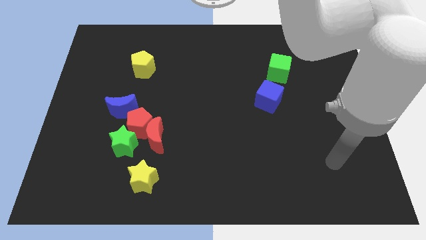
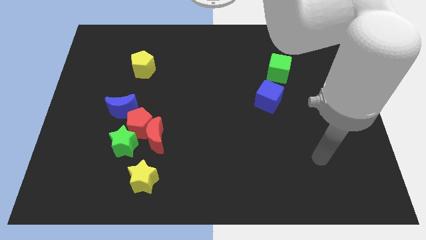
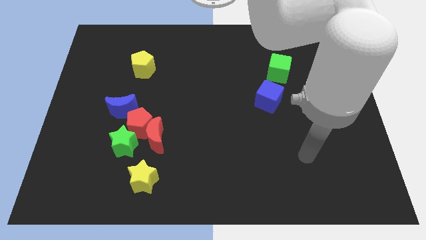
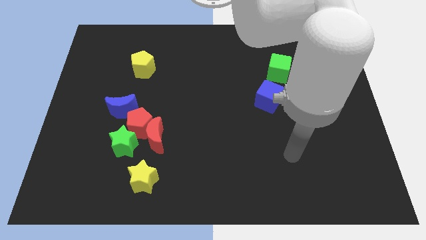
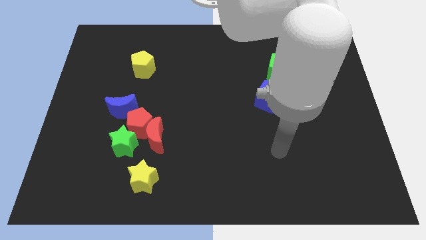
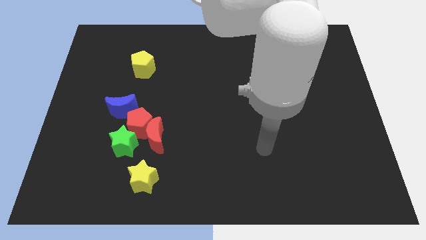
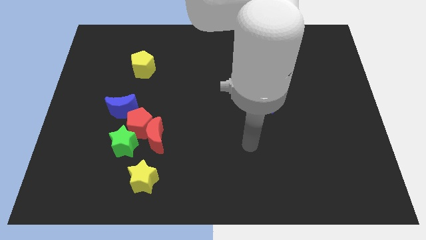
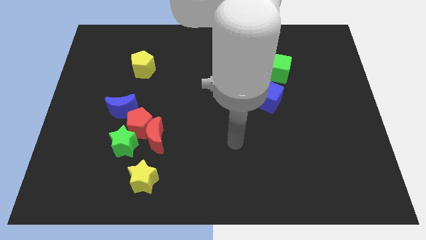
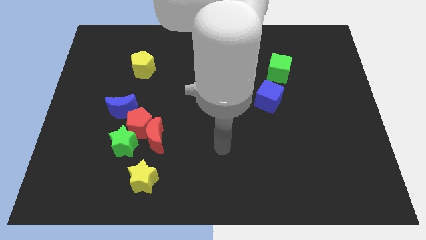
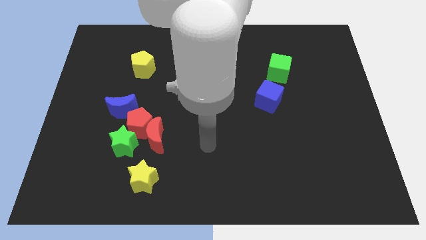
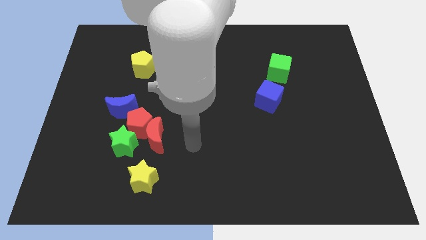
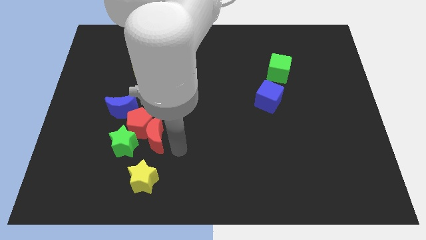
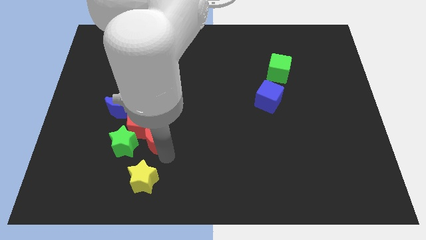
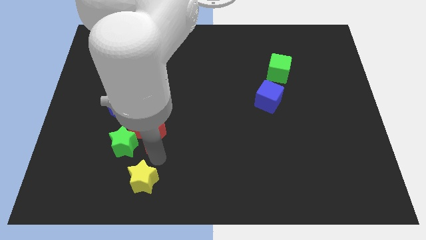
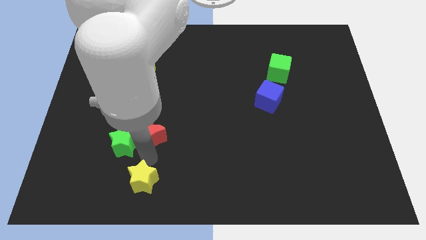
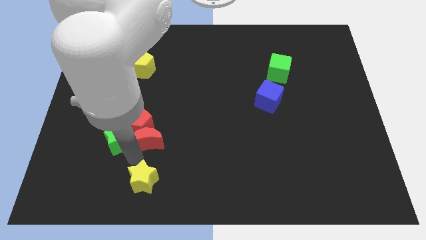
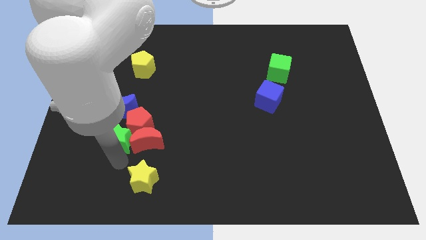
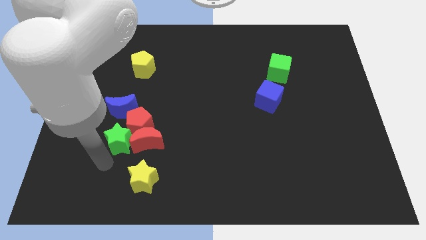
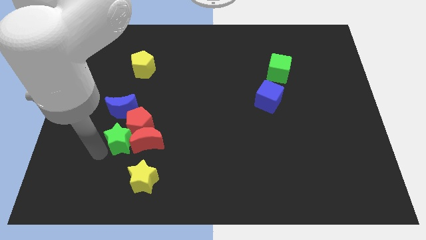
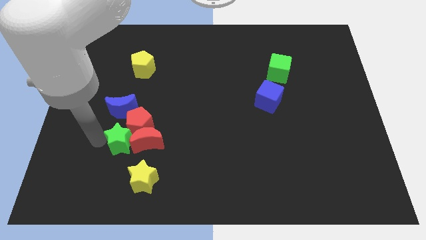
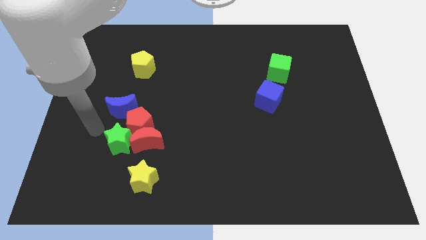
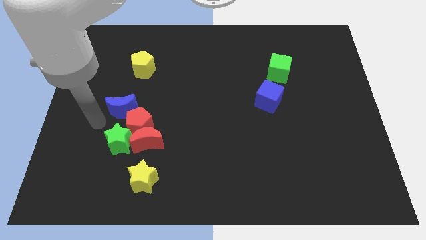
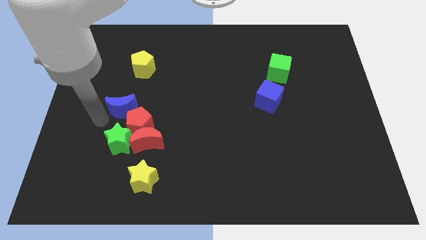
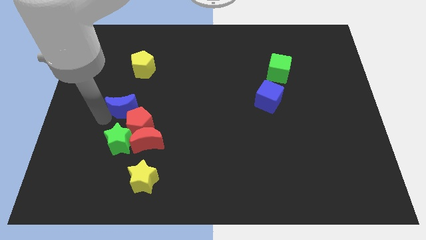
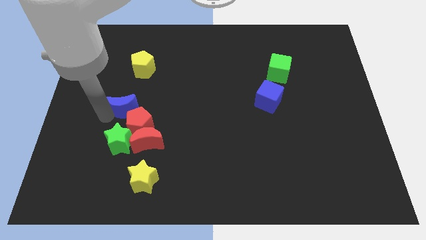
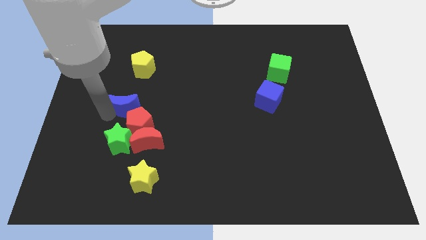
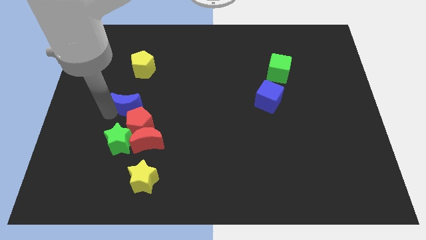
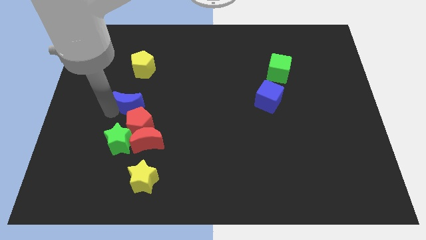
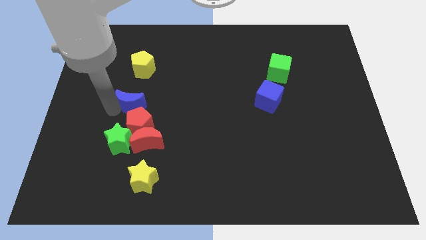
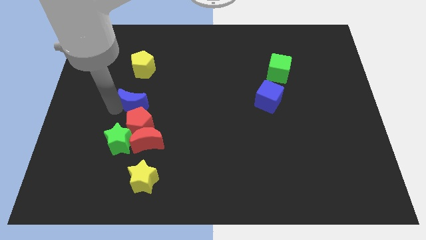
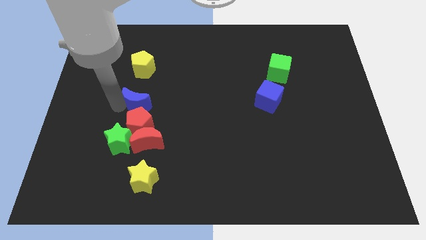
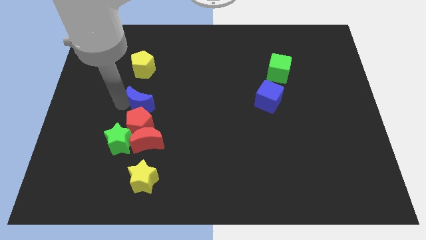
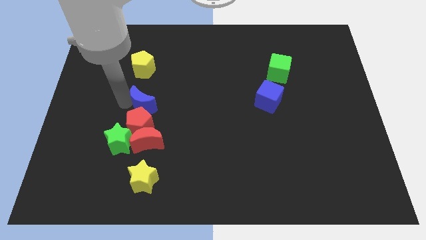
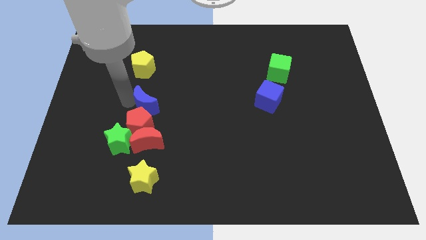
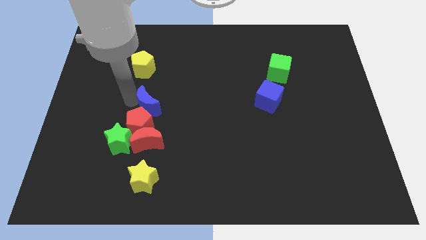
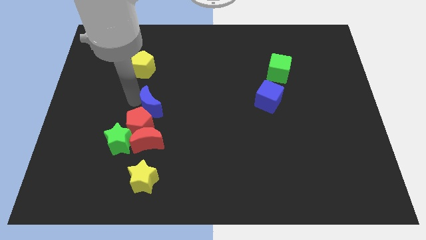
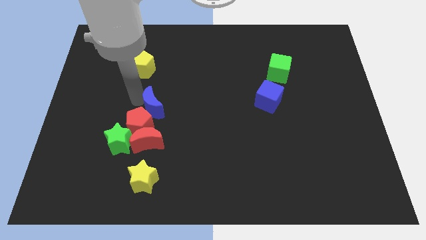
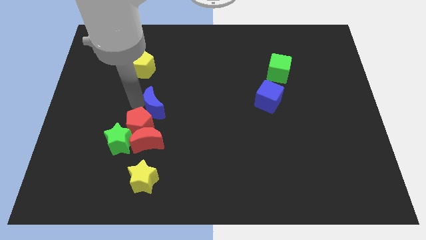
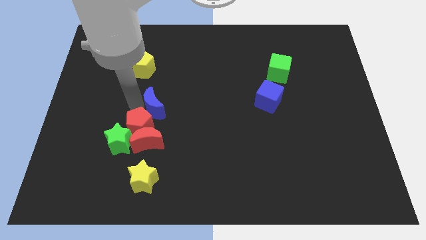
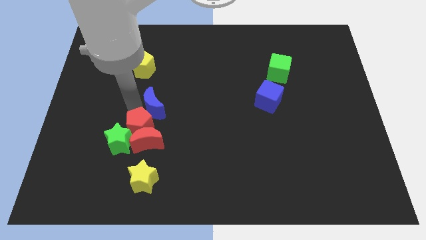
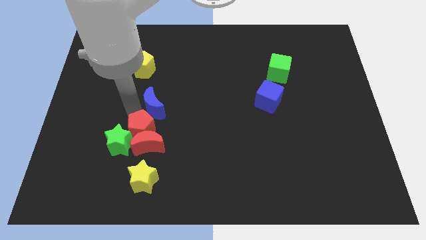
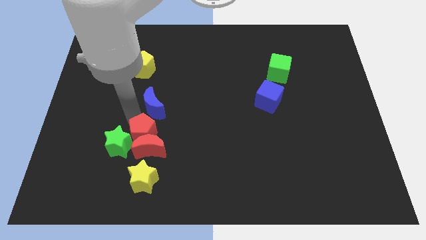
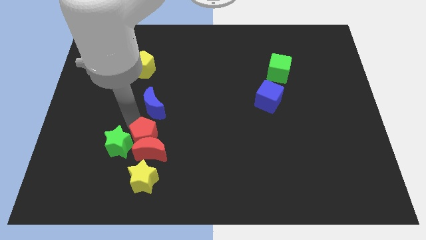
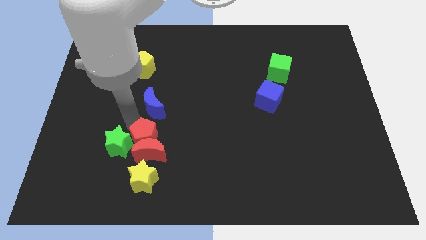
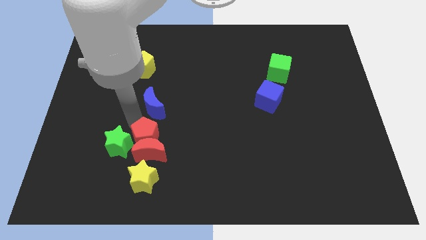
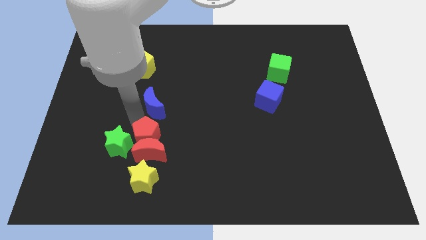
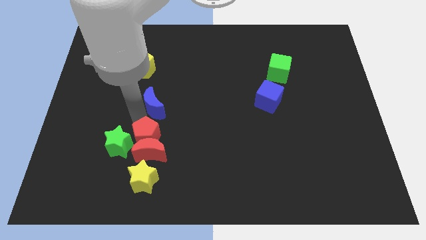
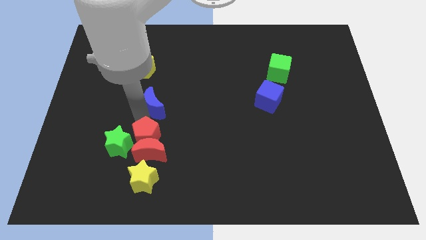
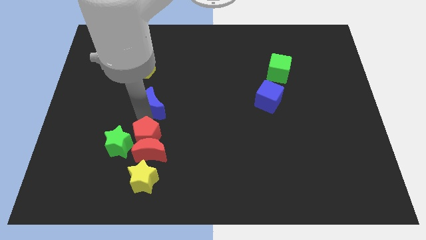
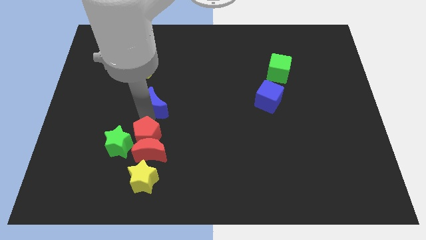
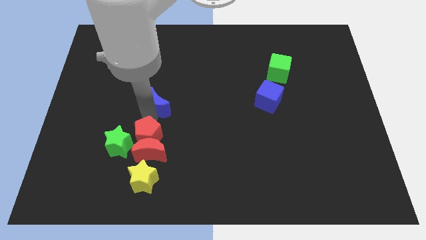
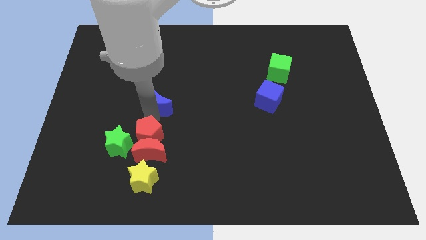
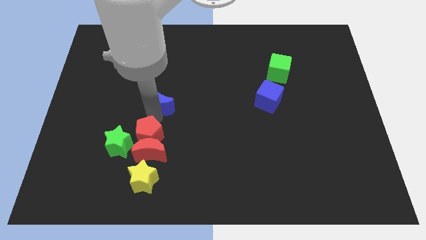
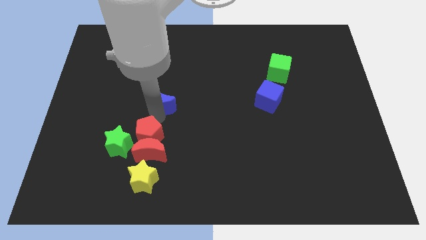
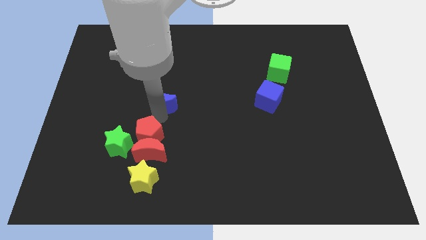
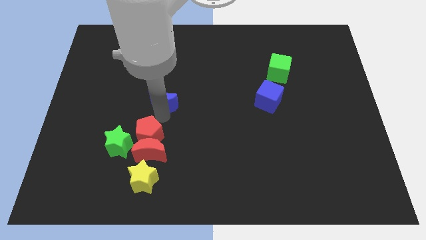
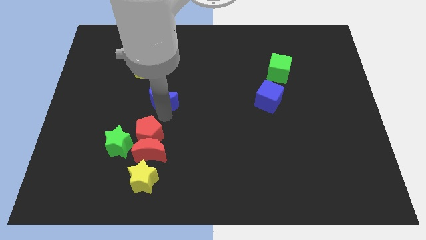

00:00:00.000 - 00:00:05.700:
move the blue moon slightly diagonally up and to the right

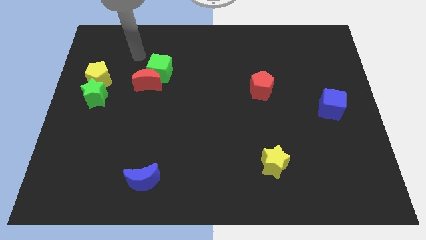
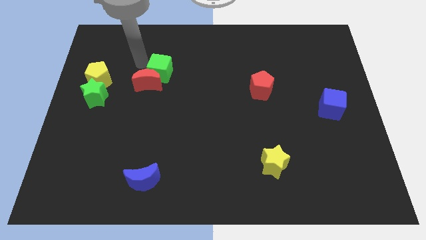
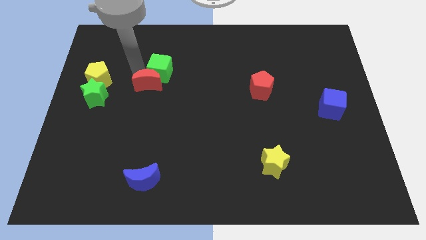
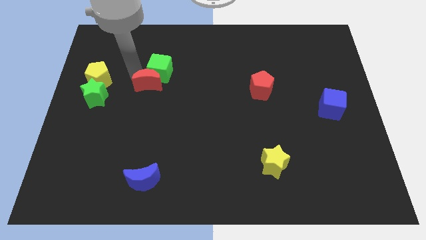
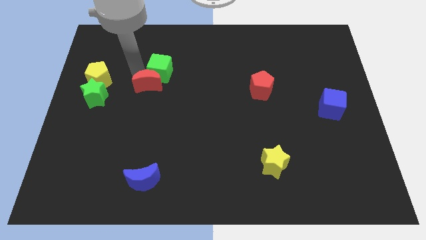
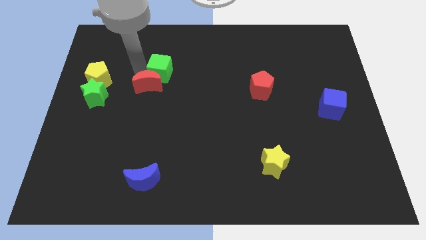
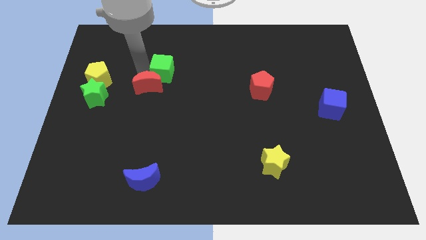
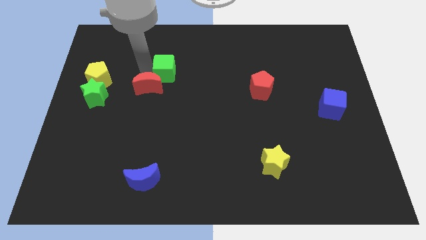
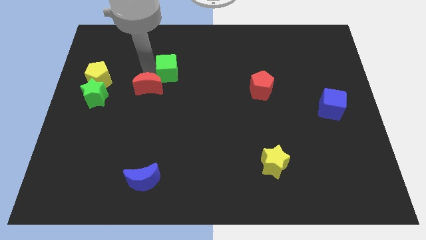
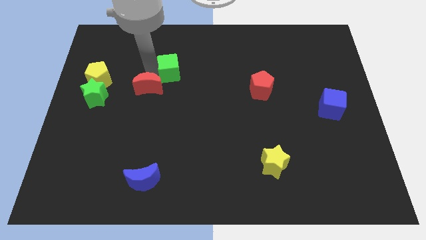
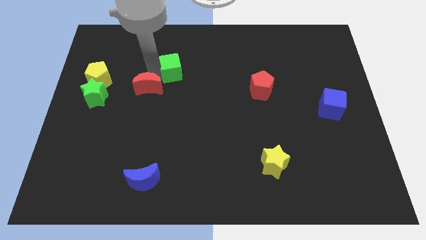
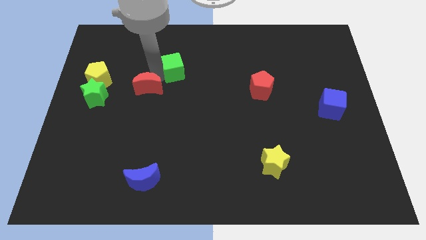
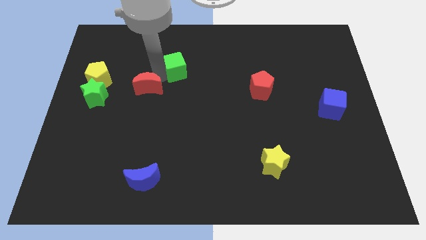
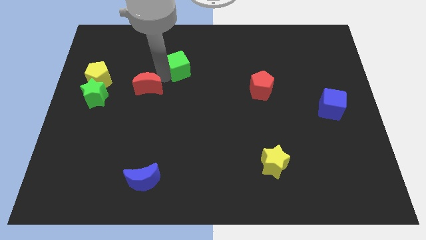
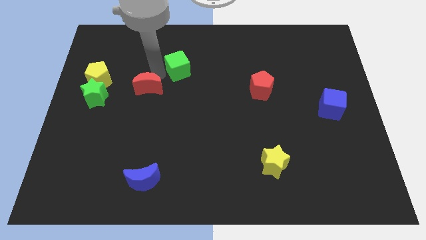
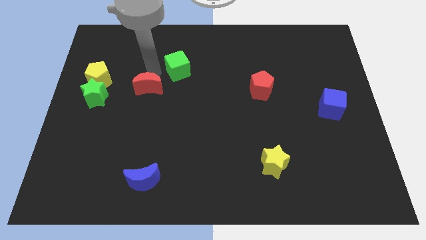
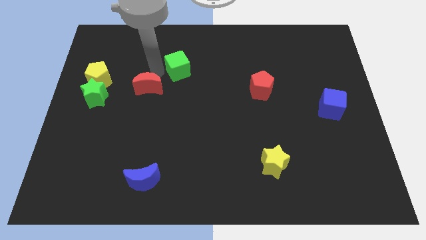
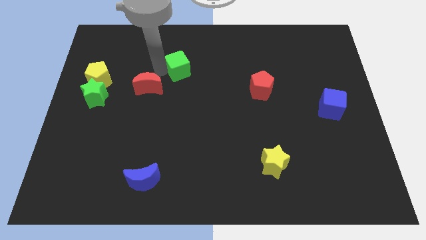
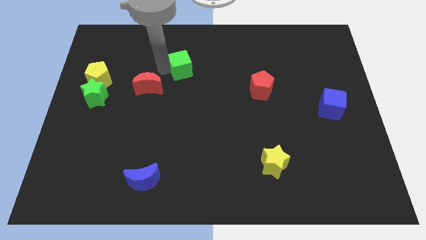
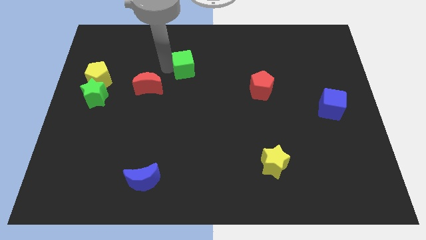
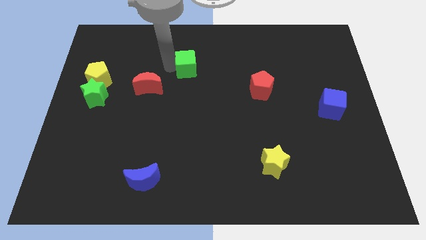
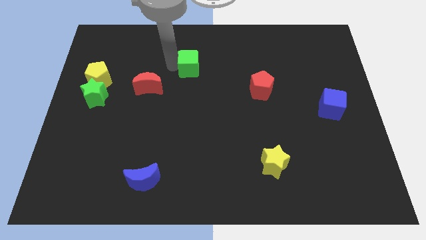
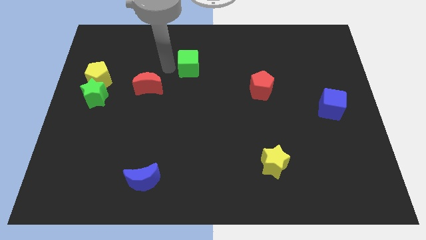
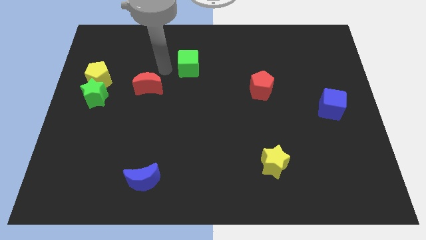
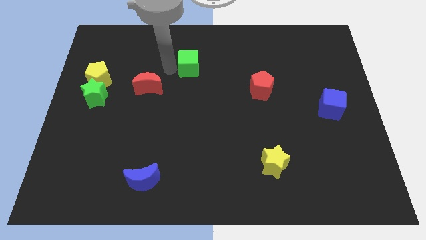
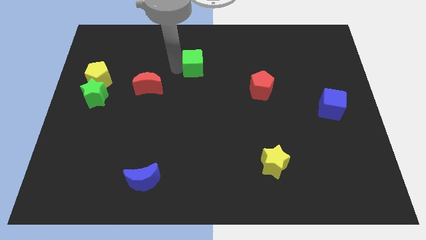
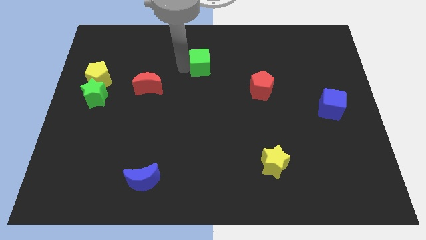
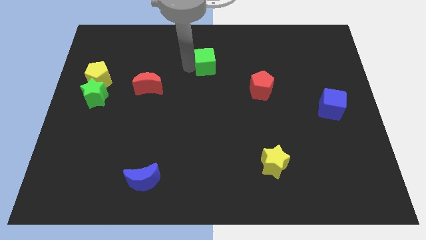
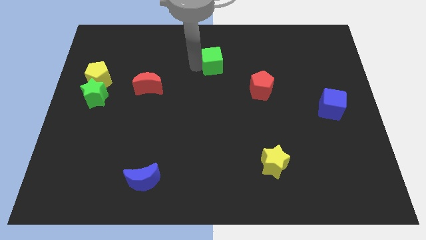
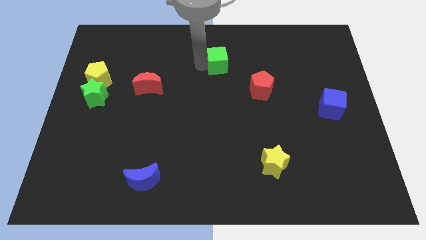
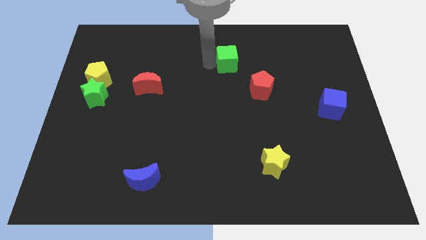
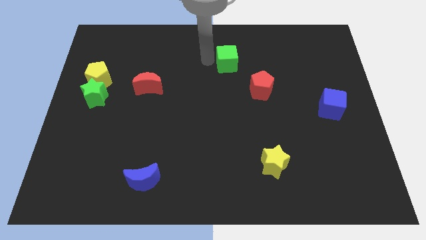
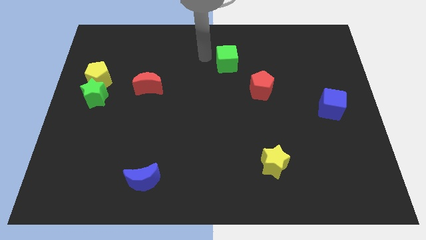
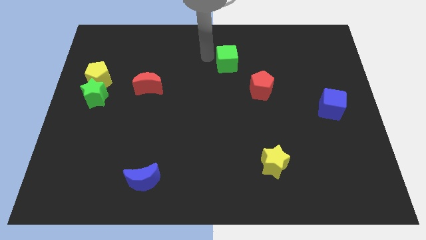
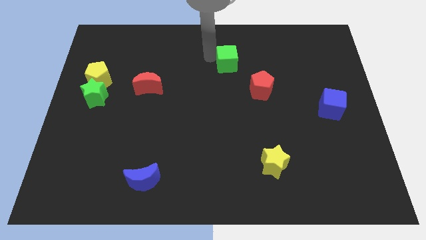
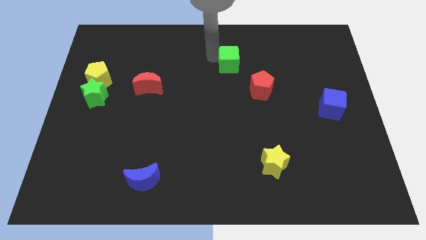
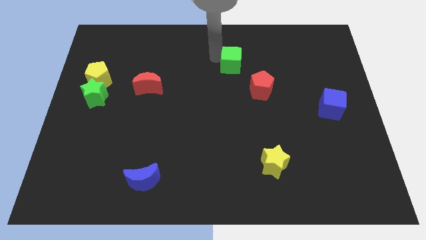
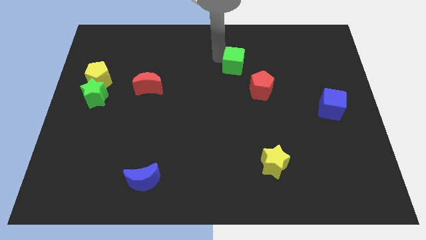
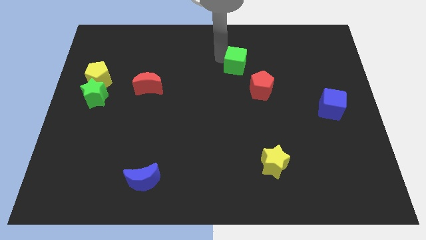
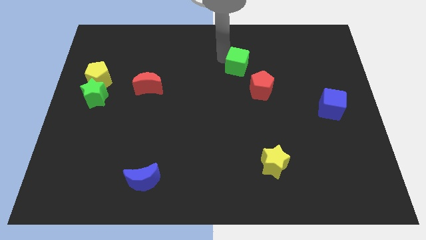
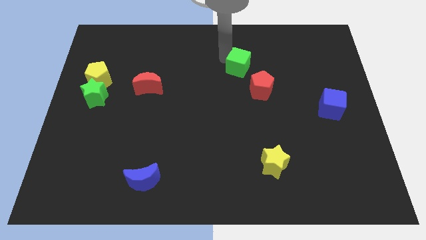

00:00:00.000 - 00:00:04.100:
slide the green cube to the right
